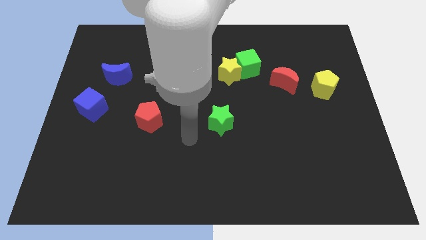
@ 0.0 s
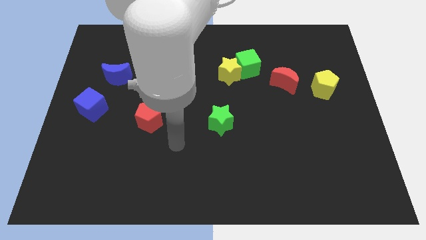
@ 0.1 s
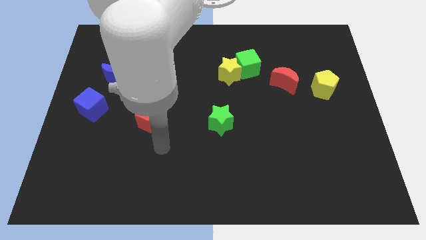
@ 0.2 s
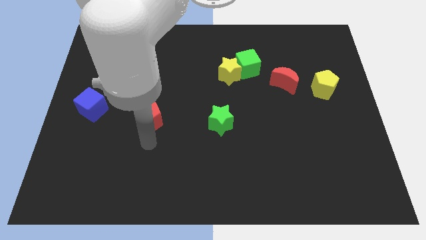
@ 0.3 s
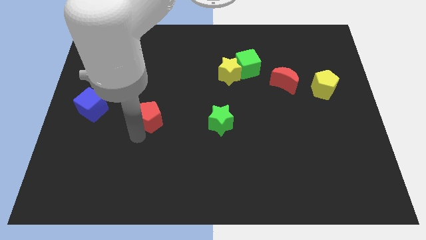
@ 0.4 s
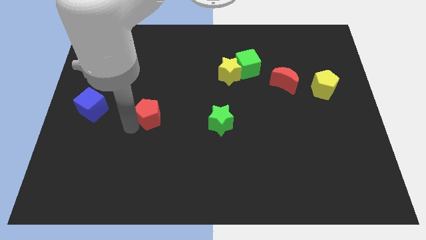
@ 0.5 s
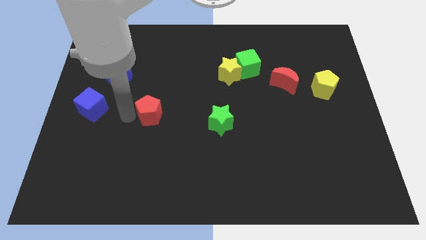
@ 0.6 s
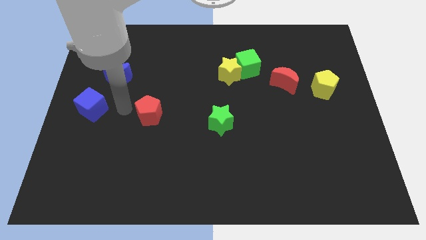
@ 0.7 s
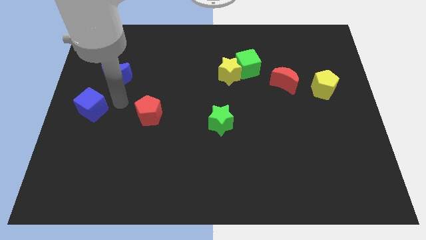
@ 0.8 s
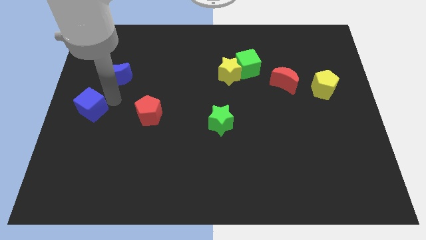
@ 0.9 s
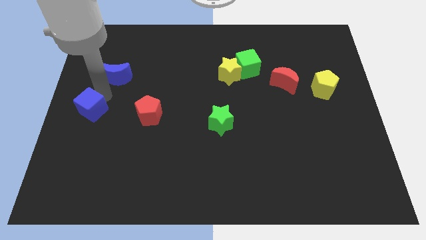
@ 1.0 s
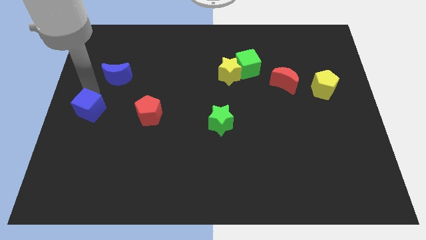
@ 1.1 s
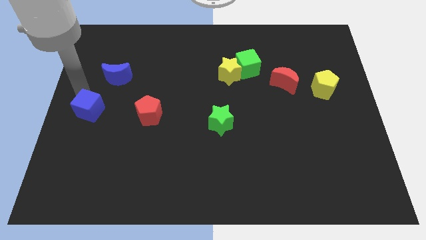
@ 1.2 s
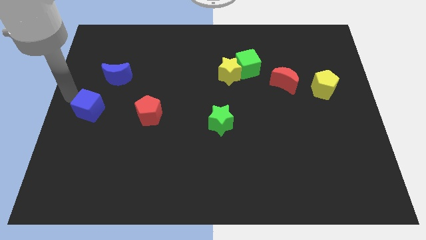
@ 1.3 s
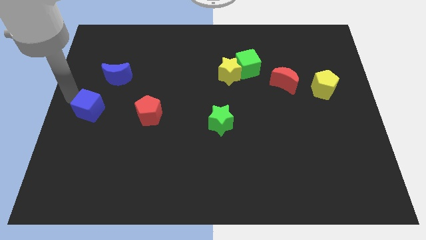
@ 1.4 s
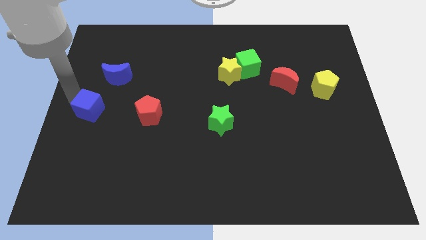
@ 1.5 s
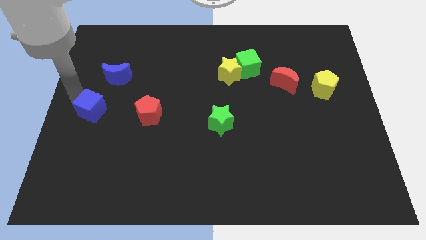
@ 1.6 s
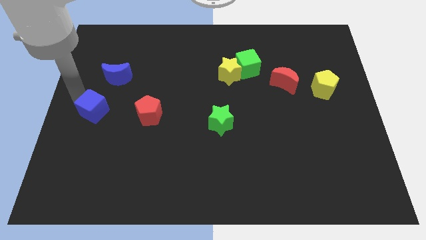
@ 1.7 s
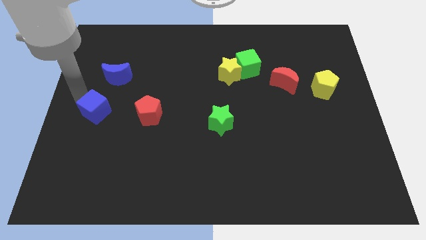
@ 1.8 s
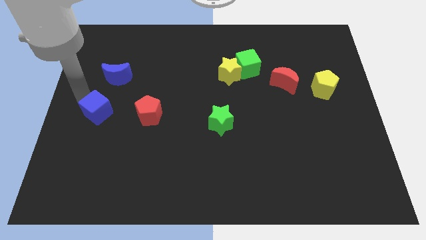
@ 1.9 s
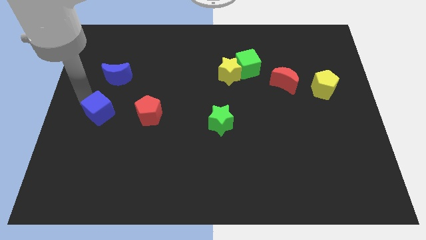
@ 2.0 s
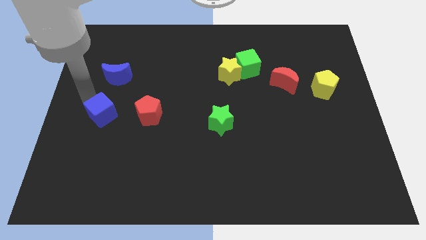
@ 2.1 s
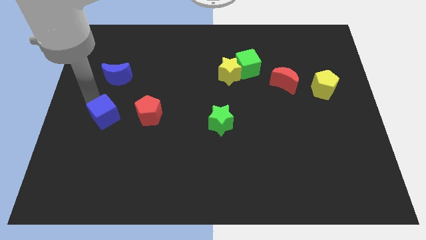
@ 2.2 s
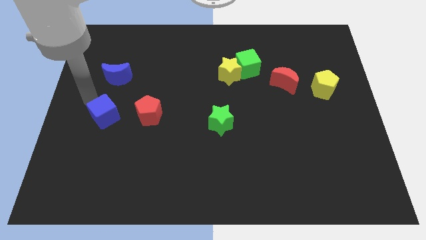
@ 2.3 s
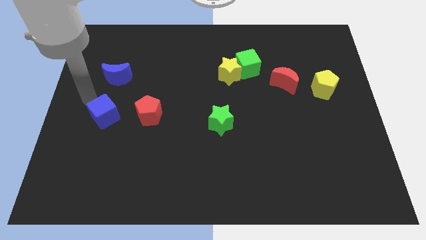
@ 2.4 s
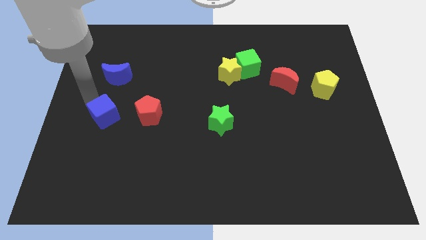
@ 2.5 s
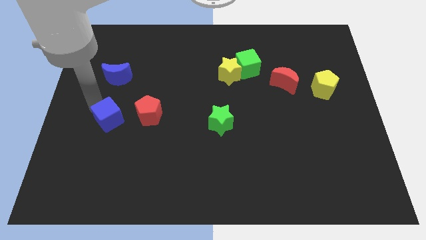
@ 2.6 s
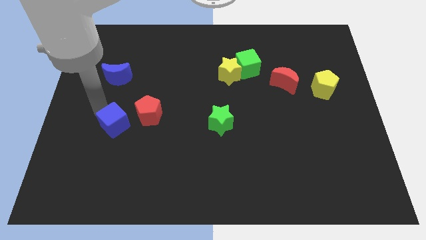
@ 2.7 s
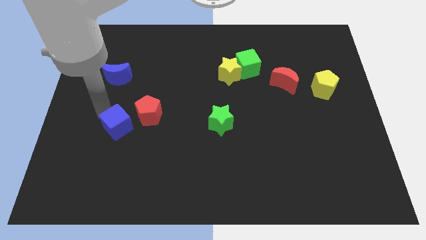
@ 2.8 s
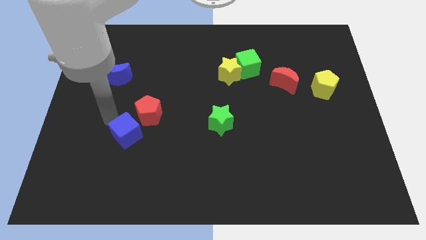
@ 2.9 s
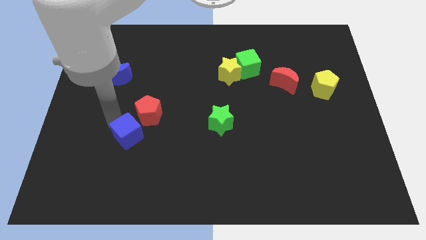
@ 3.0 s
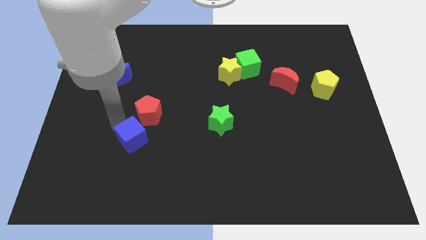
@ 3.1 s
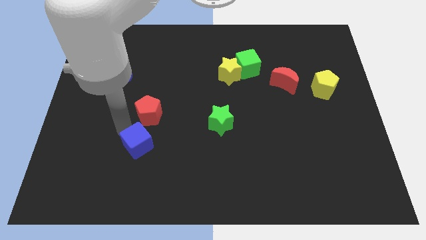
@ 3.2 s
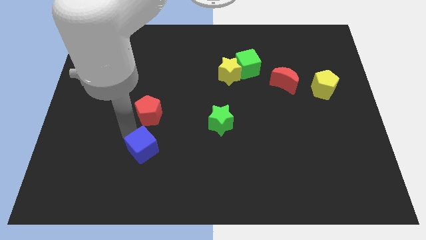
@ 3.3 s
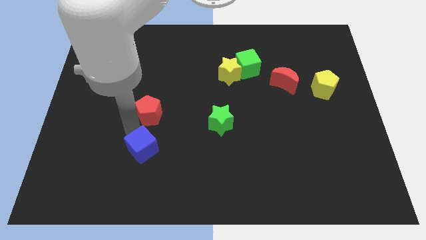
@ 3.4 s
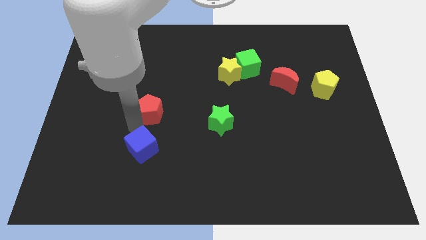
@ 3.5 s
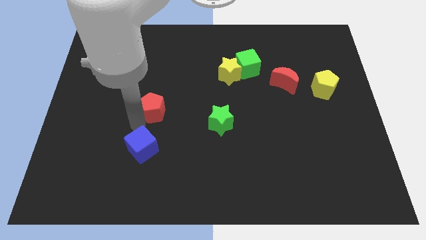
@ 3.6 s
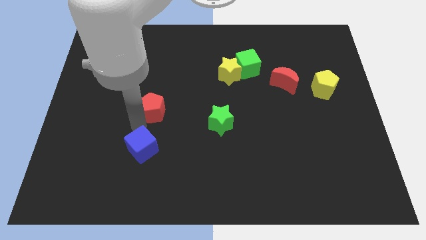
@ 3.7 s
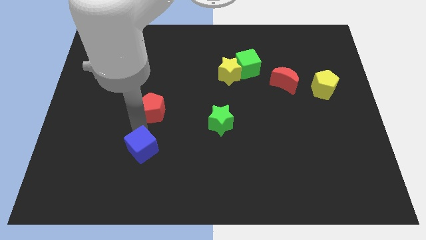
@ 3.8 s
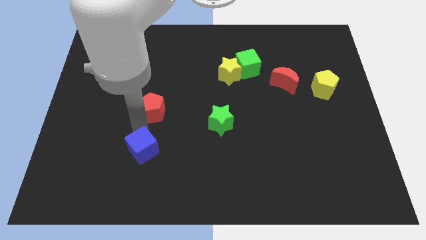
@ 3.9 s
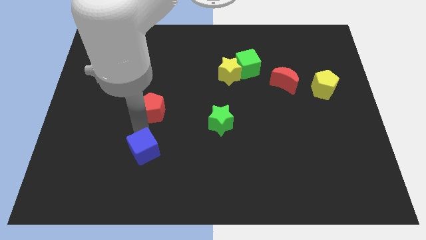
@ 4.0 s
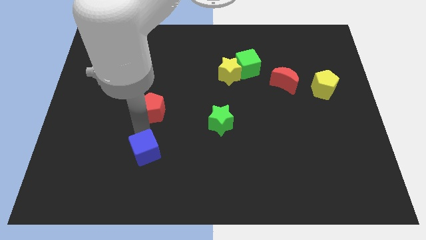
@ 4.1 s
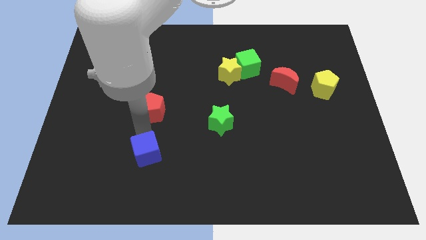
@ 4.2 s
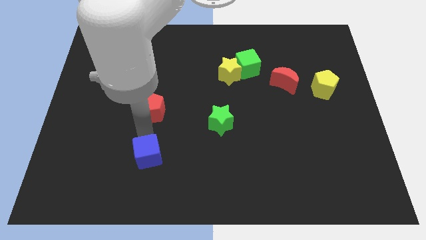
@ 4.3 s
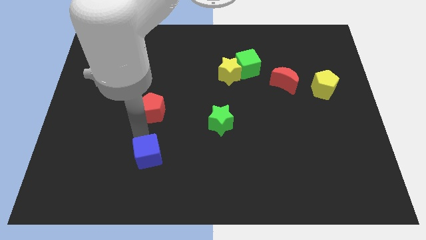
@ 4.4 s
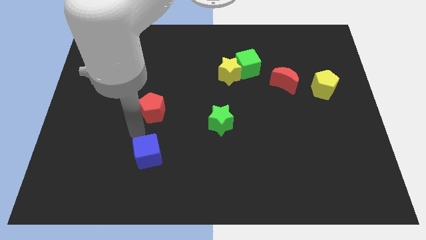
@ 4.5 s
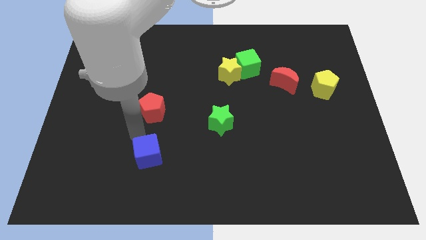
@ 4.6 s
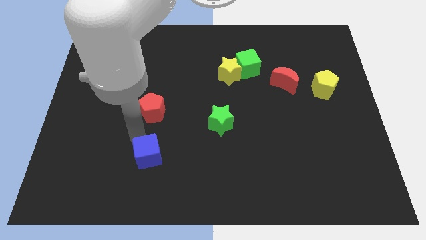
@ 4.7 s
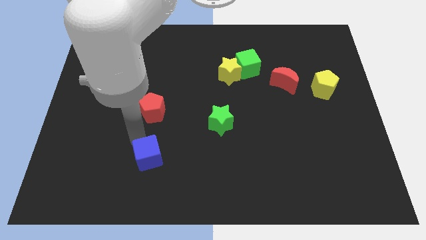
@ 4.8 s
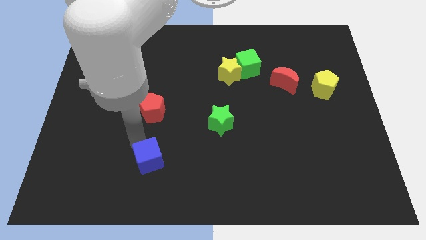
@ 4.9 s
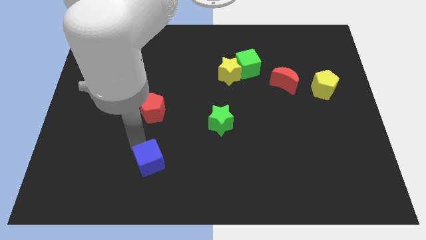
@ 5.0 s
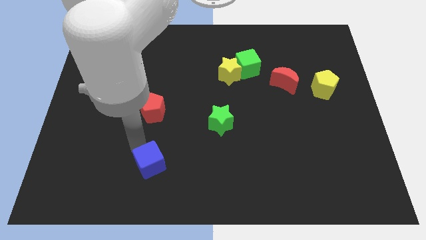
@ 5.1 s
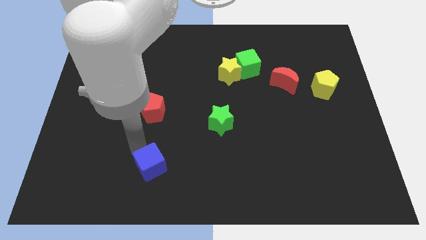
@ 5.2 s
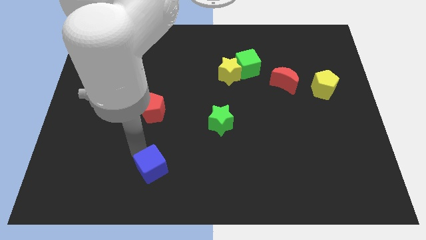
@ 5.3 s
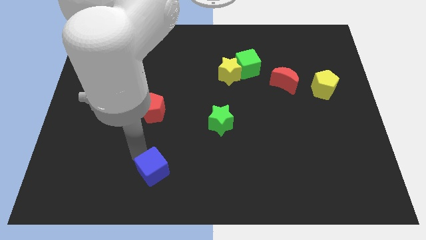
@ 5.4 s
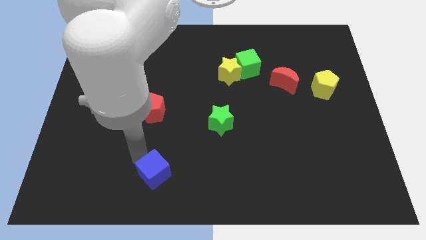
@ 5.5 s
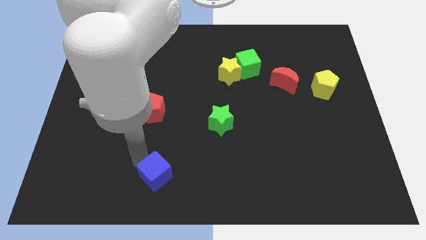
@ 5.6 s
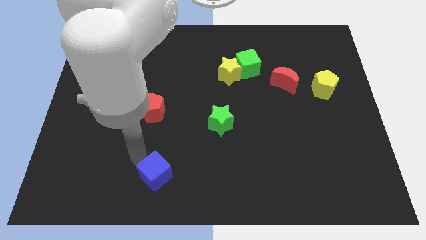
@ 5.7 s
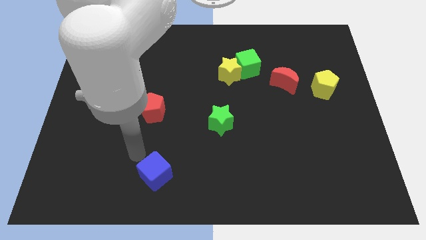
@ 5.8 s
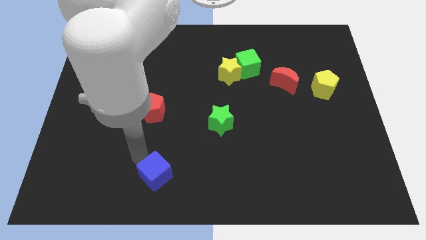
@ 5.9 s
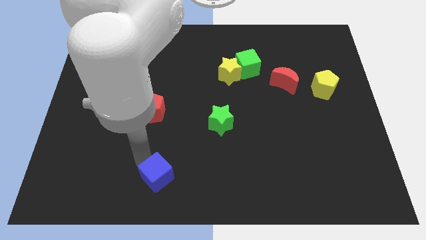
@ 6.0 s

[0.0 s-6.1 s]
put the blue cube to the bottom

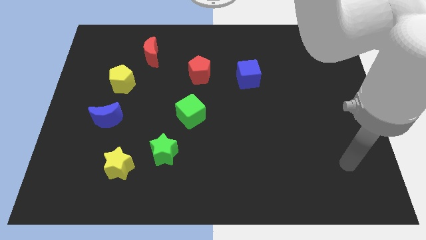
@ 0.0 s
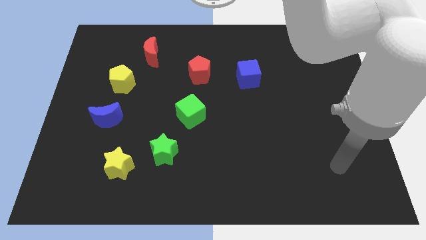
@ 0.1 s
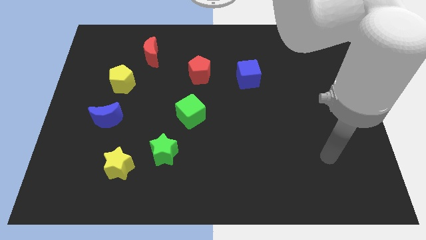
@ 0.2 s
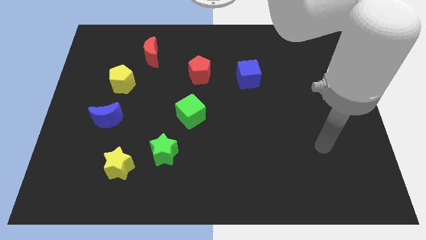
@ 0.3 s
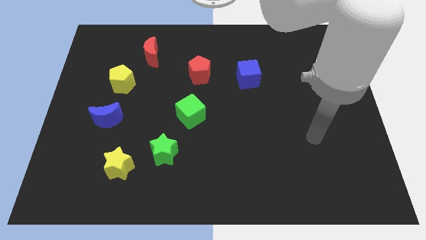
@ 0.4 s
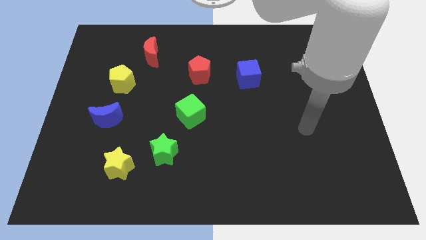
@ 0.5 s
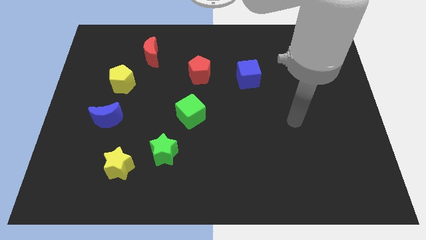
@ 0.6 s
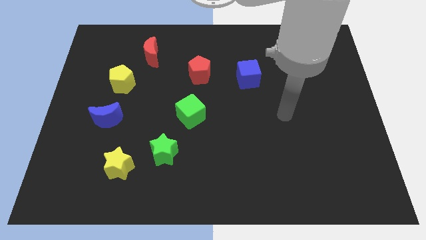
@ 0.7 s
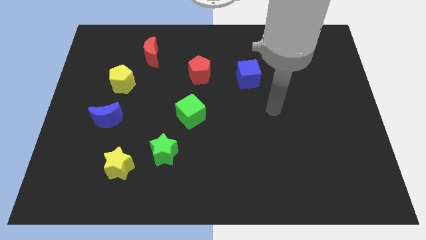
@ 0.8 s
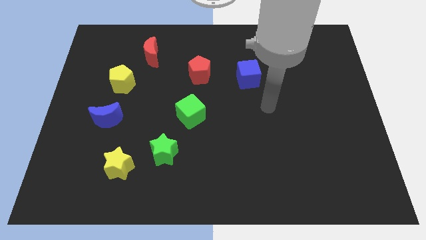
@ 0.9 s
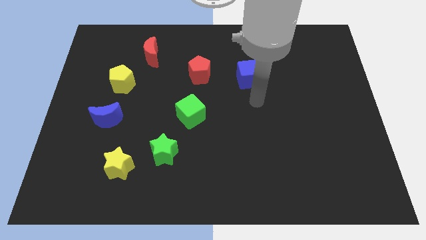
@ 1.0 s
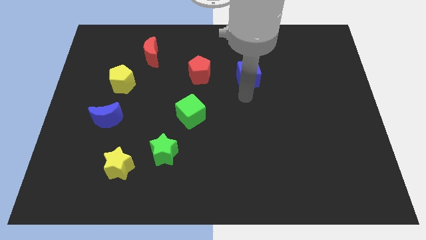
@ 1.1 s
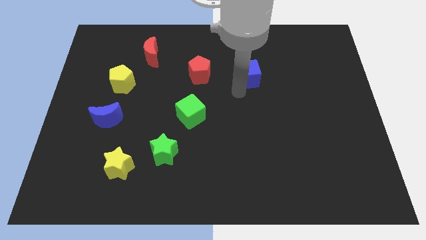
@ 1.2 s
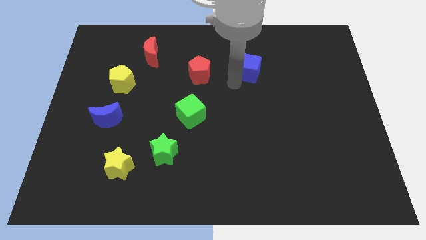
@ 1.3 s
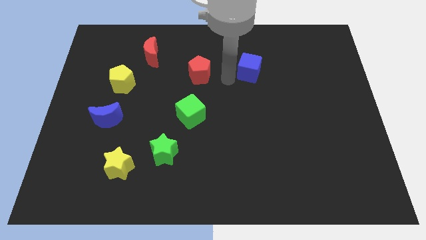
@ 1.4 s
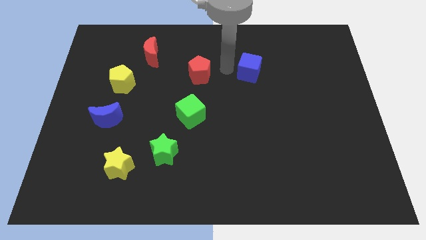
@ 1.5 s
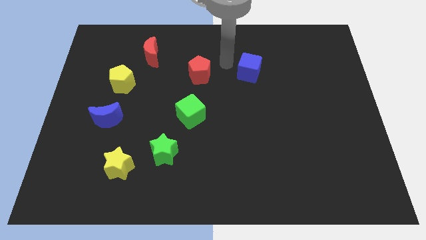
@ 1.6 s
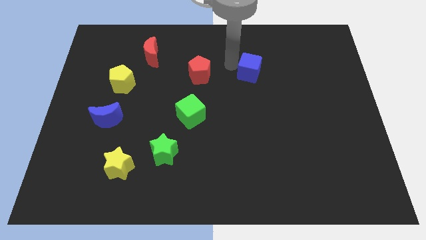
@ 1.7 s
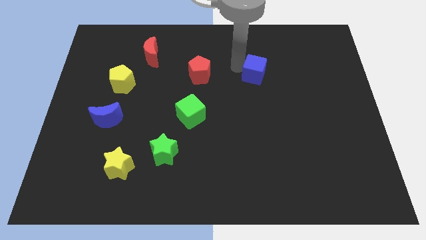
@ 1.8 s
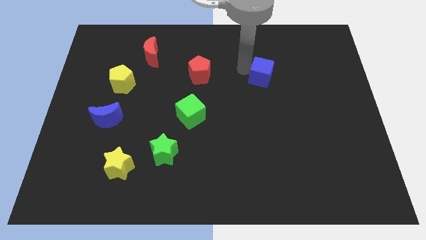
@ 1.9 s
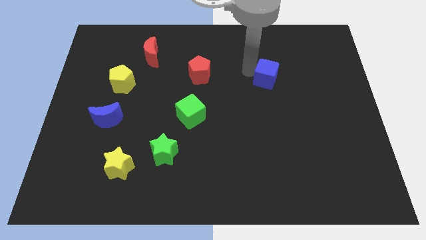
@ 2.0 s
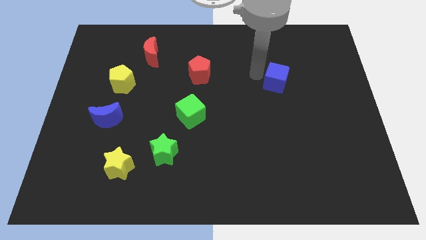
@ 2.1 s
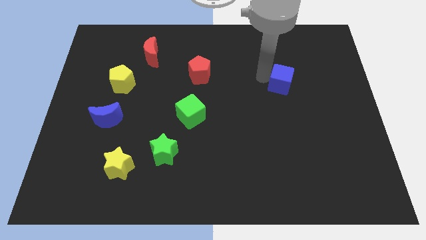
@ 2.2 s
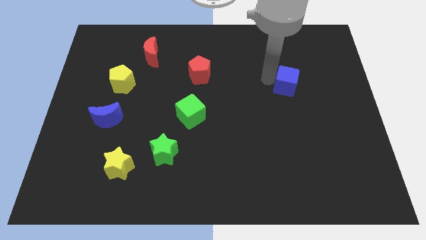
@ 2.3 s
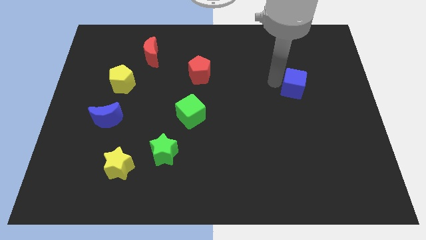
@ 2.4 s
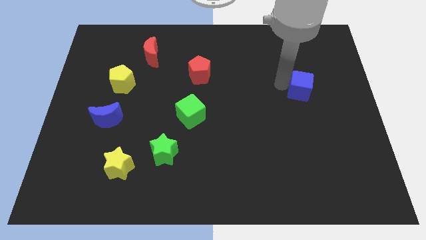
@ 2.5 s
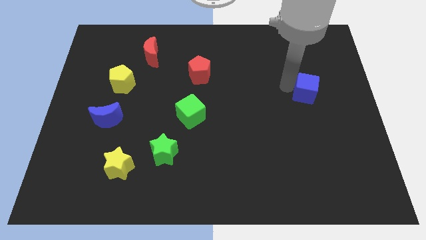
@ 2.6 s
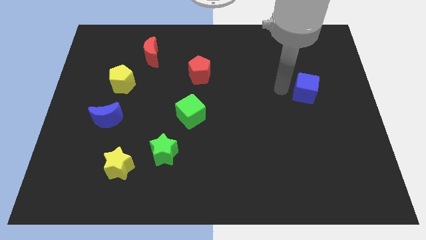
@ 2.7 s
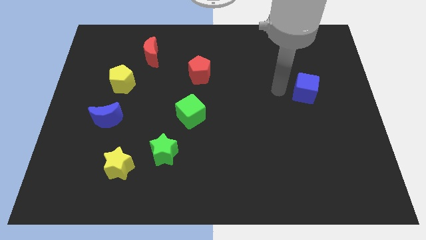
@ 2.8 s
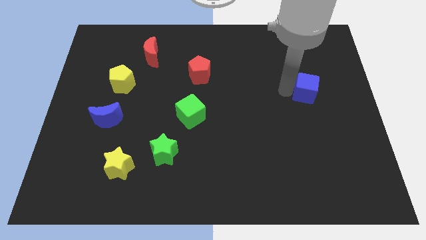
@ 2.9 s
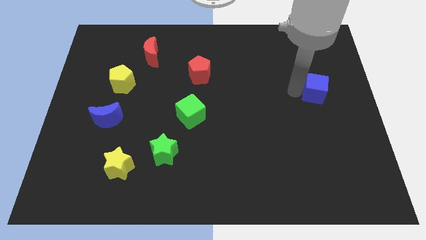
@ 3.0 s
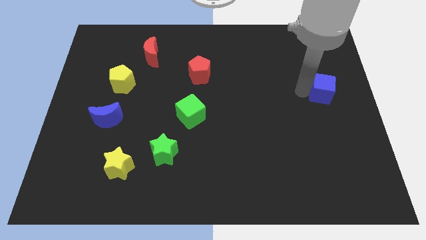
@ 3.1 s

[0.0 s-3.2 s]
slide the blue cube to the center right
